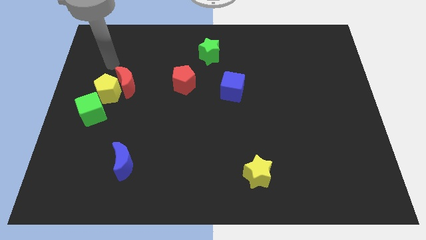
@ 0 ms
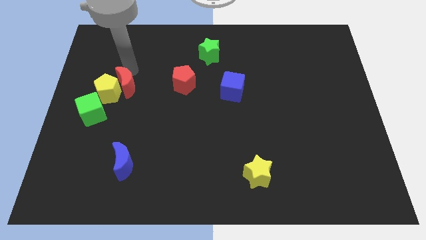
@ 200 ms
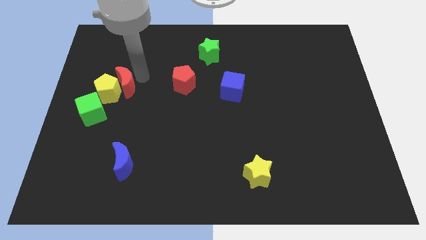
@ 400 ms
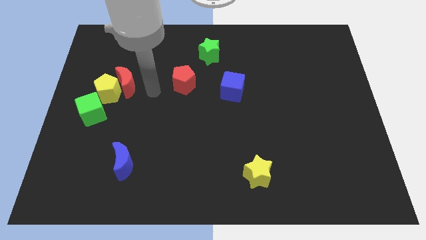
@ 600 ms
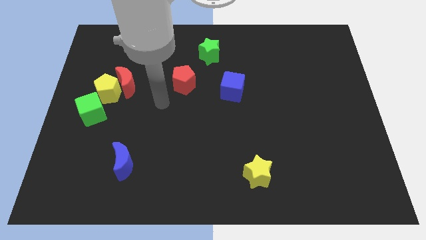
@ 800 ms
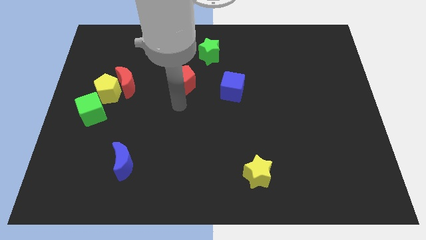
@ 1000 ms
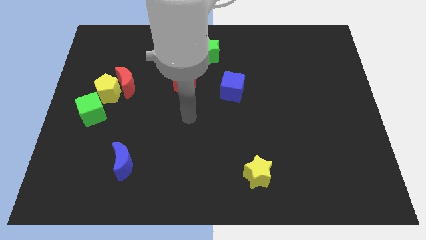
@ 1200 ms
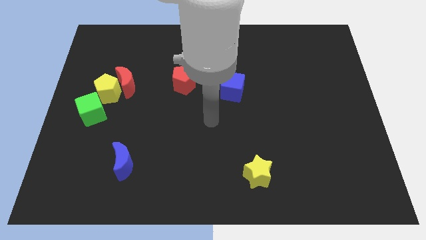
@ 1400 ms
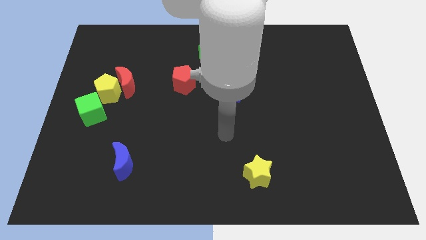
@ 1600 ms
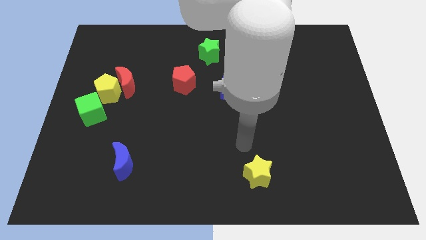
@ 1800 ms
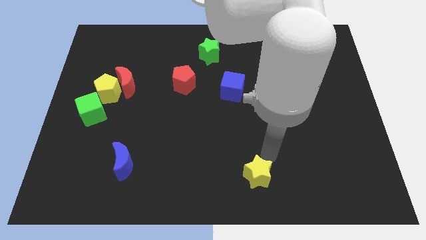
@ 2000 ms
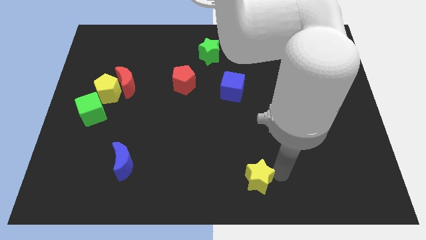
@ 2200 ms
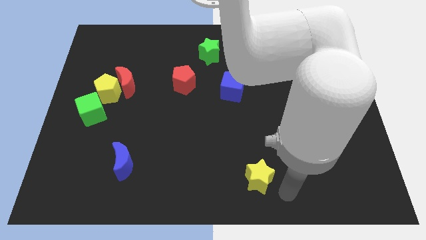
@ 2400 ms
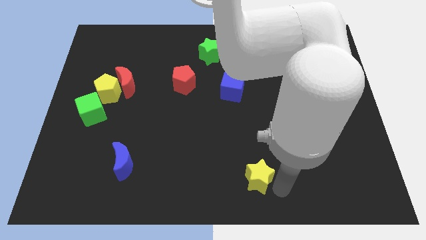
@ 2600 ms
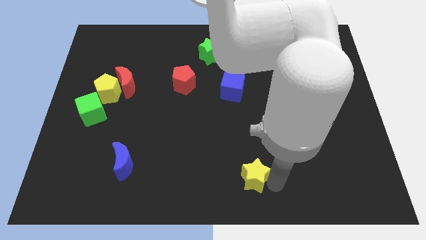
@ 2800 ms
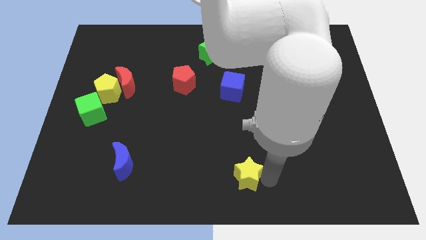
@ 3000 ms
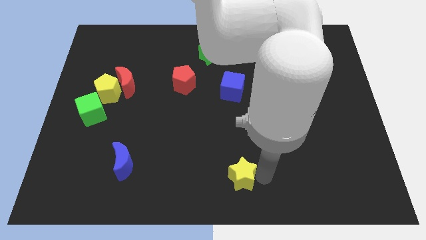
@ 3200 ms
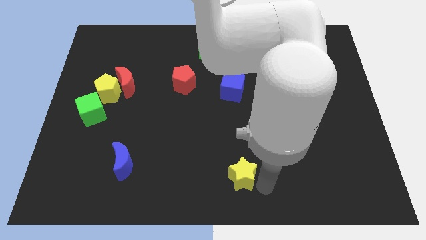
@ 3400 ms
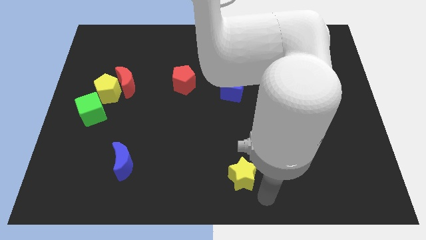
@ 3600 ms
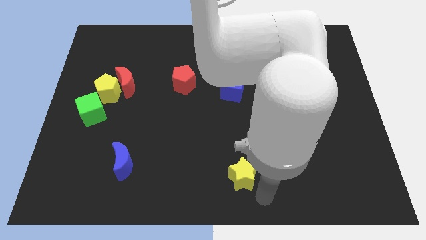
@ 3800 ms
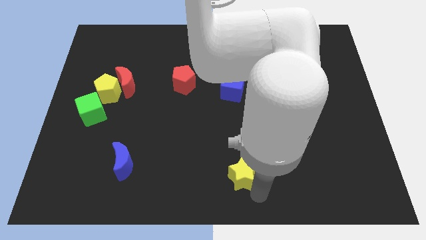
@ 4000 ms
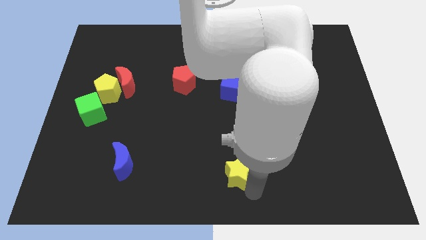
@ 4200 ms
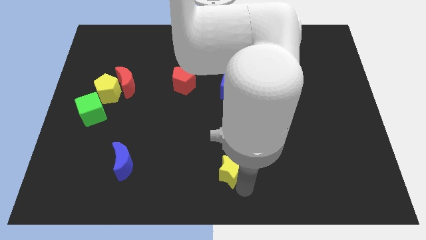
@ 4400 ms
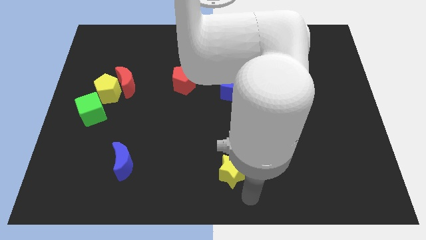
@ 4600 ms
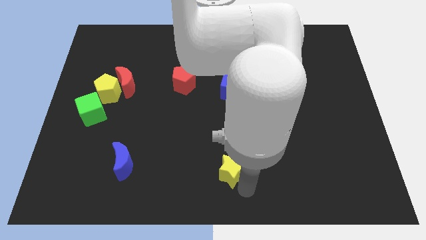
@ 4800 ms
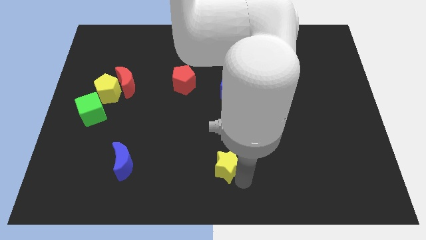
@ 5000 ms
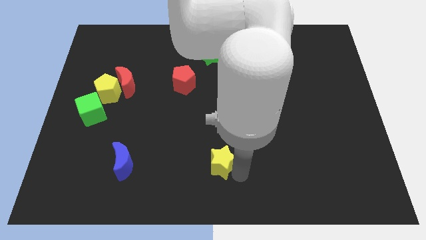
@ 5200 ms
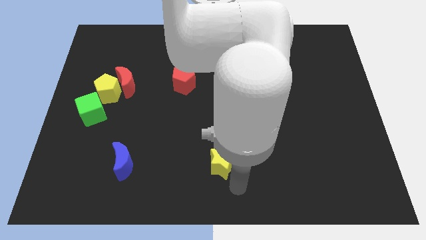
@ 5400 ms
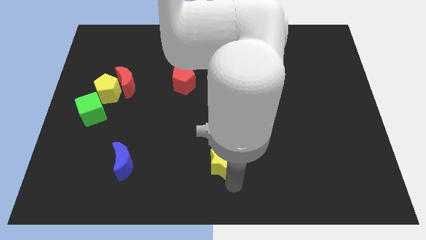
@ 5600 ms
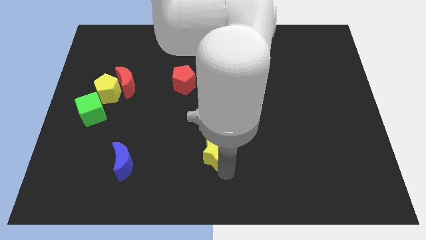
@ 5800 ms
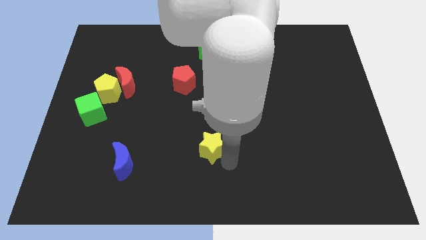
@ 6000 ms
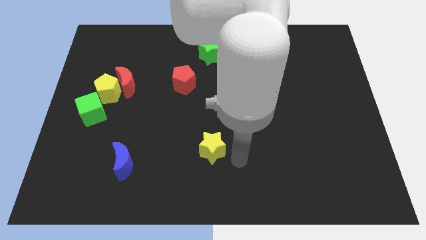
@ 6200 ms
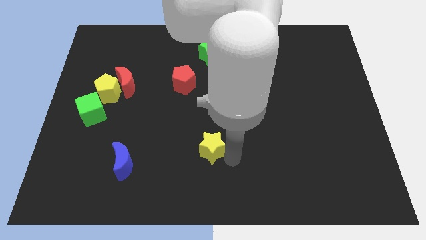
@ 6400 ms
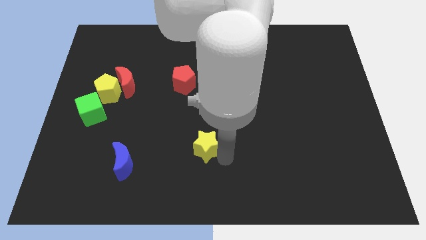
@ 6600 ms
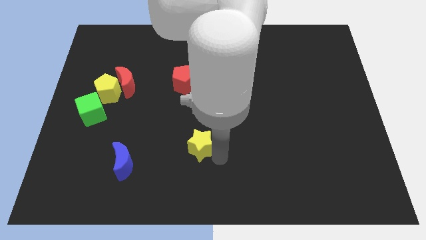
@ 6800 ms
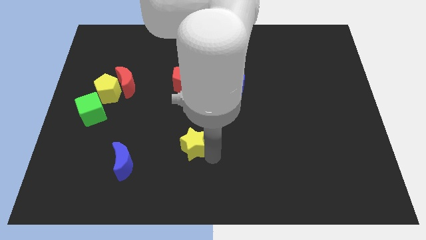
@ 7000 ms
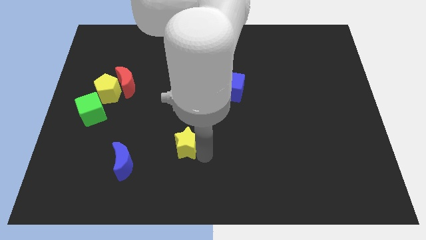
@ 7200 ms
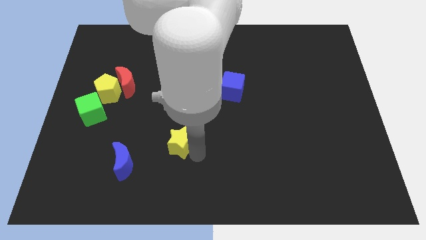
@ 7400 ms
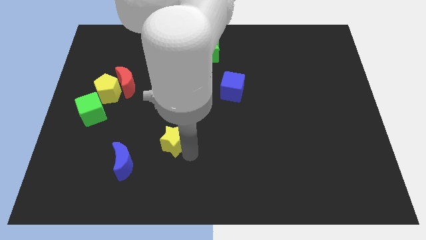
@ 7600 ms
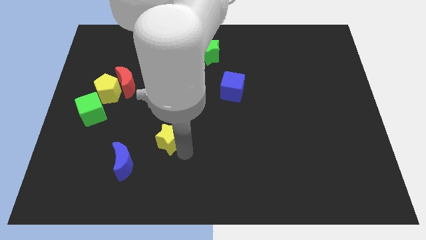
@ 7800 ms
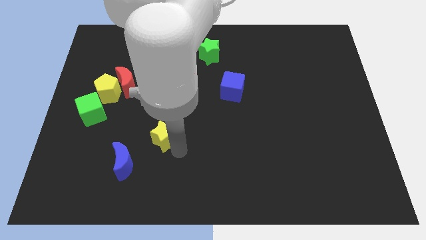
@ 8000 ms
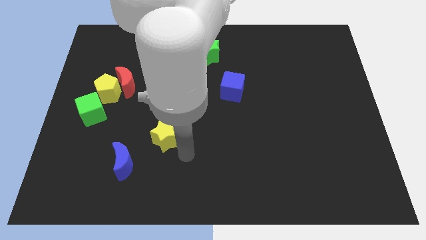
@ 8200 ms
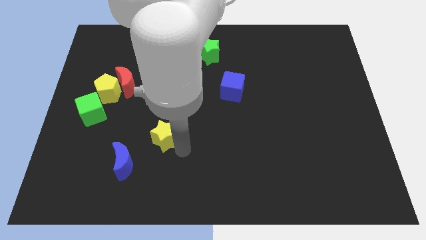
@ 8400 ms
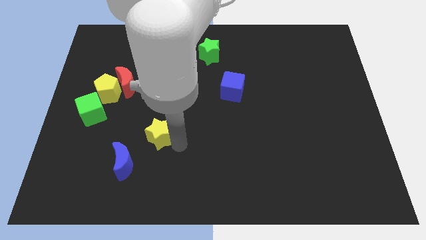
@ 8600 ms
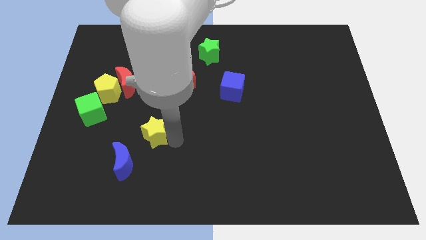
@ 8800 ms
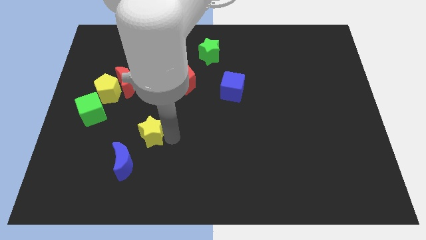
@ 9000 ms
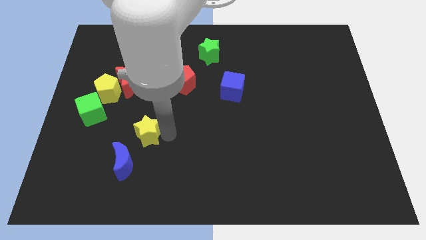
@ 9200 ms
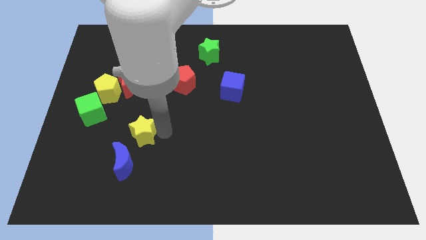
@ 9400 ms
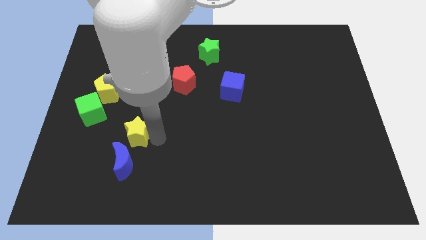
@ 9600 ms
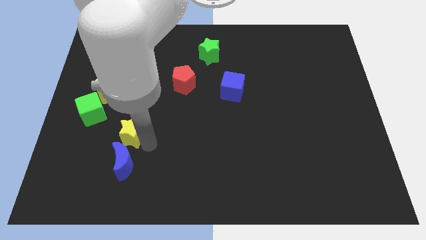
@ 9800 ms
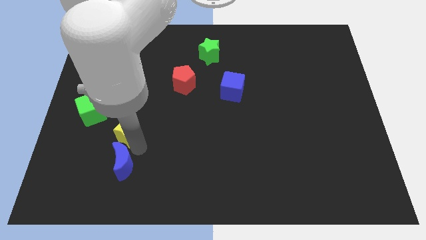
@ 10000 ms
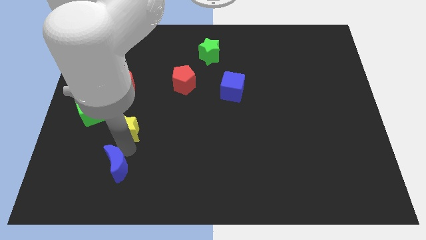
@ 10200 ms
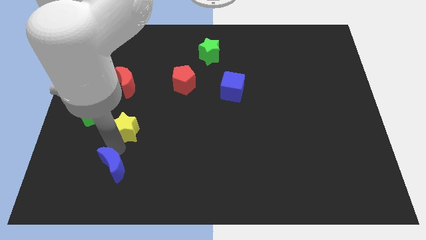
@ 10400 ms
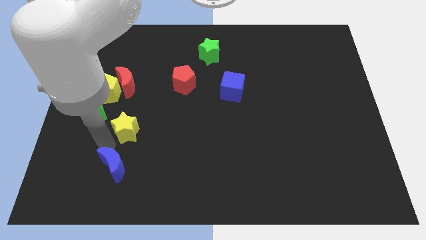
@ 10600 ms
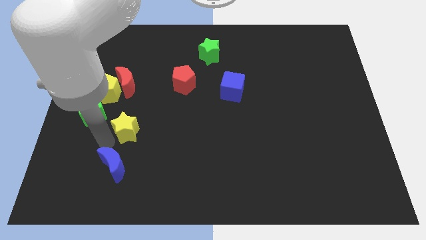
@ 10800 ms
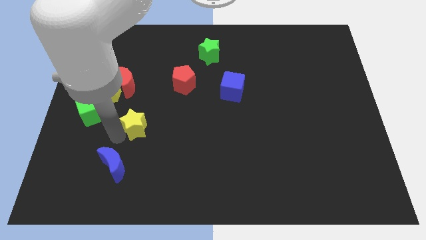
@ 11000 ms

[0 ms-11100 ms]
put the yellow star to the bottom right side of the yellow pentagon

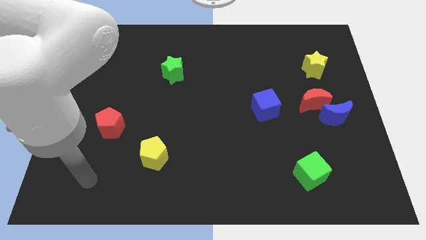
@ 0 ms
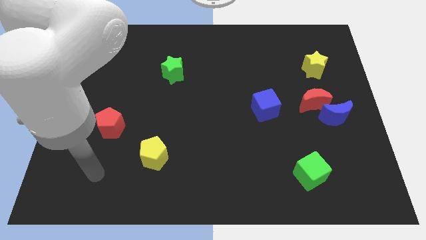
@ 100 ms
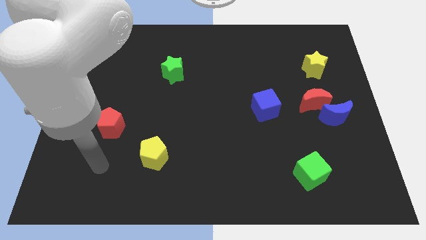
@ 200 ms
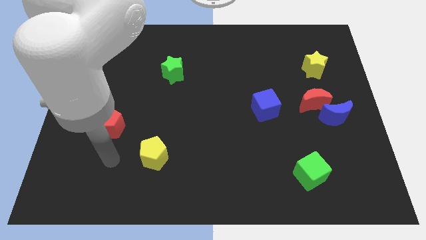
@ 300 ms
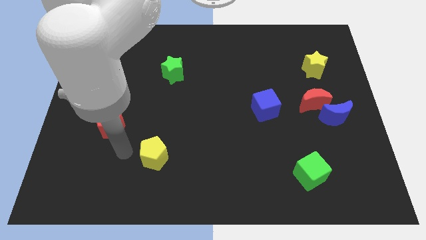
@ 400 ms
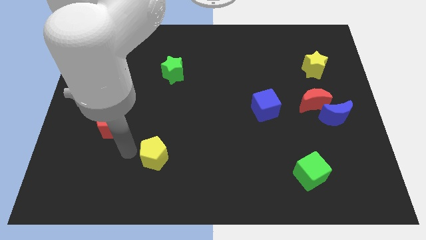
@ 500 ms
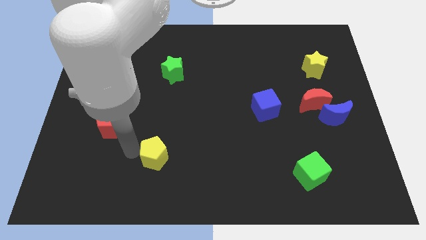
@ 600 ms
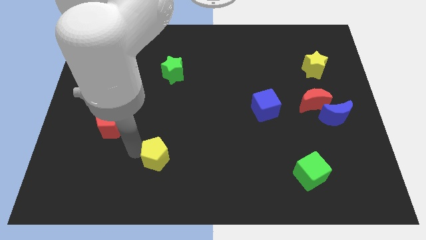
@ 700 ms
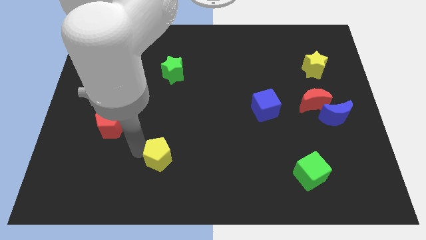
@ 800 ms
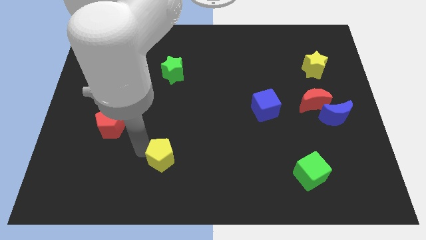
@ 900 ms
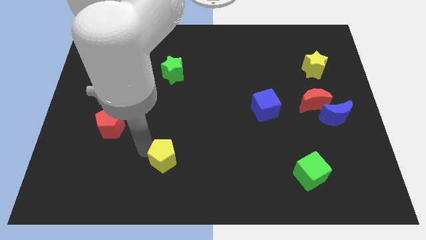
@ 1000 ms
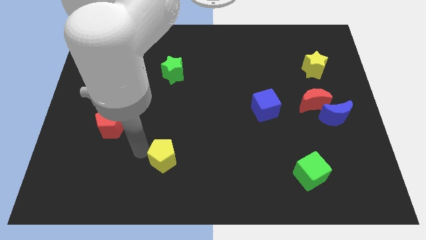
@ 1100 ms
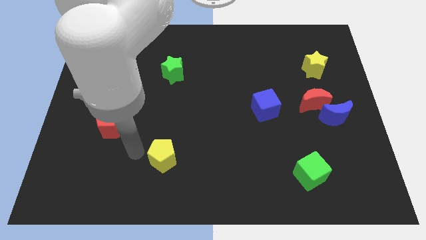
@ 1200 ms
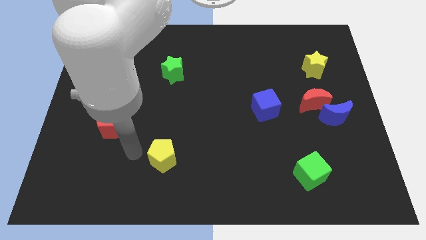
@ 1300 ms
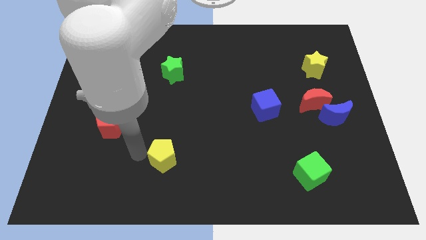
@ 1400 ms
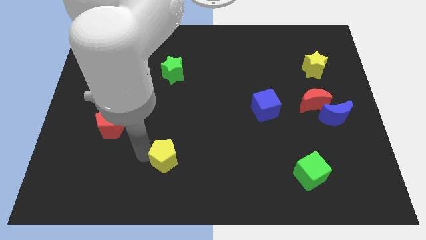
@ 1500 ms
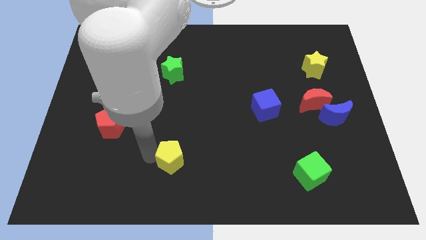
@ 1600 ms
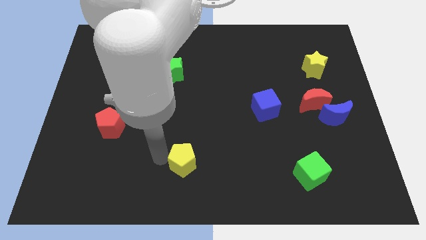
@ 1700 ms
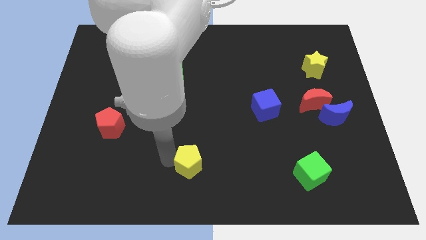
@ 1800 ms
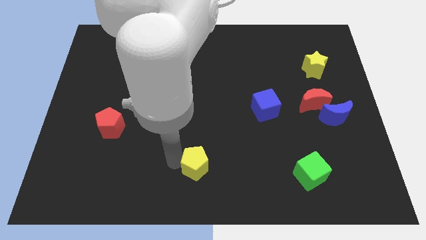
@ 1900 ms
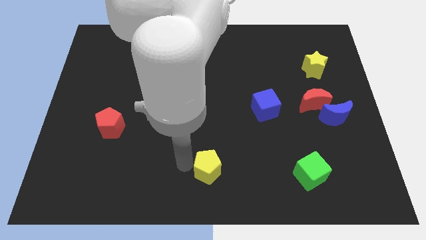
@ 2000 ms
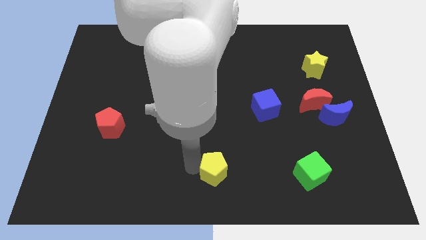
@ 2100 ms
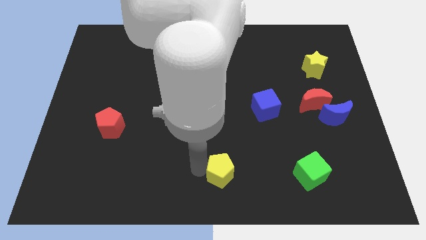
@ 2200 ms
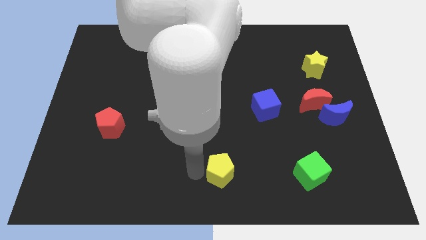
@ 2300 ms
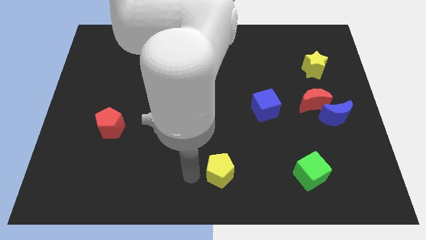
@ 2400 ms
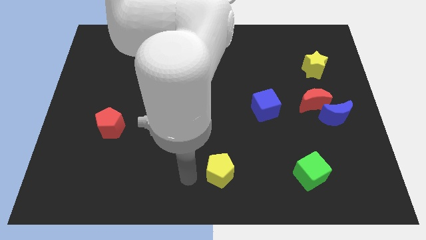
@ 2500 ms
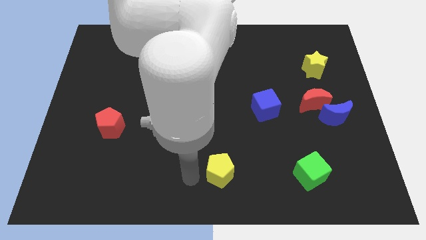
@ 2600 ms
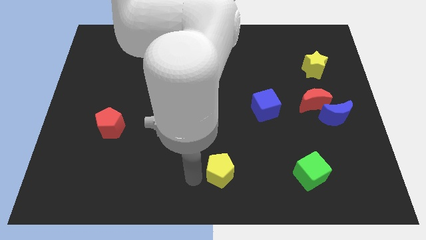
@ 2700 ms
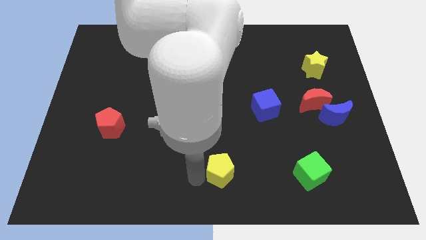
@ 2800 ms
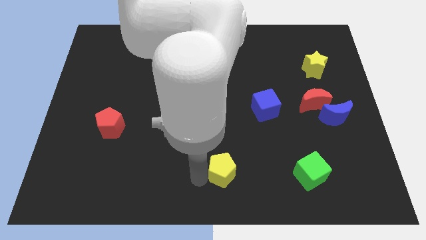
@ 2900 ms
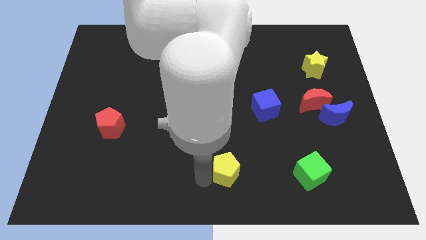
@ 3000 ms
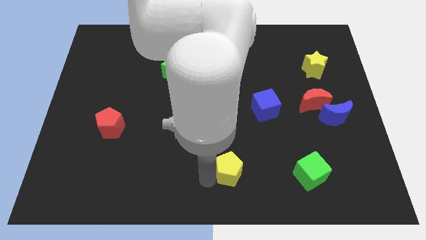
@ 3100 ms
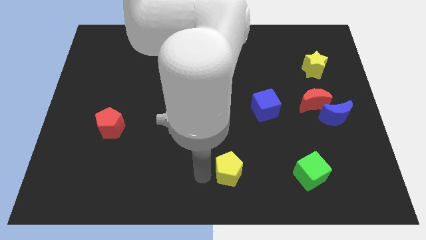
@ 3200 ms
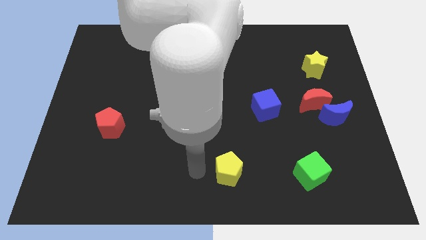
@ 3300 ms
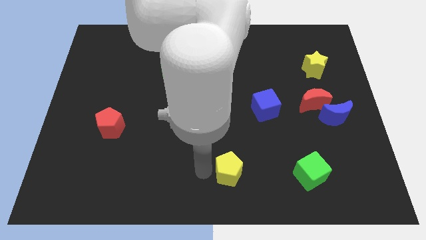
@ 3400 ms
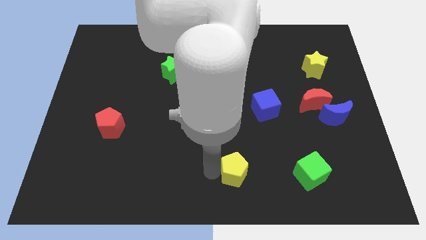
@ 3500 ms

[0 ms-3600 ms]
put the yellow pentagon left of the green cube
